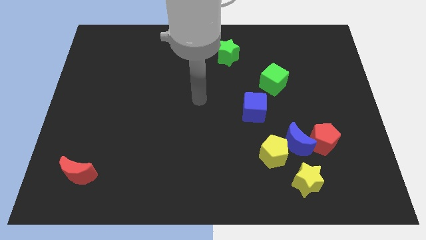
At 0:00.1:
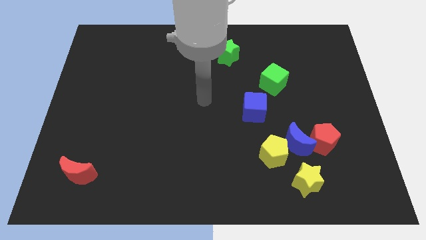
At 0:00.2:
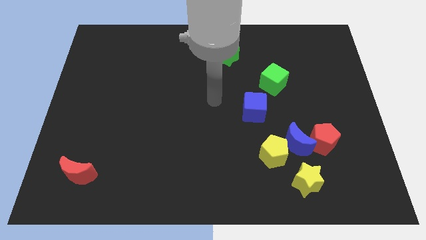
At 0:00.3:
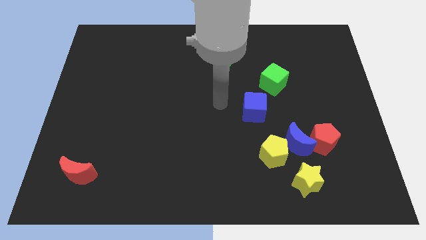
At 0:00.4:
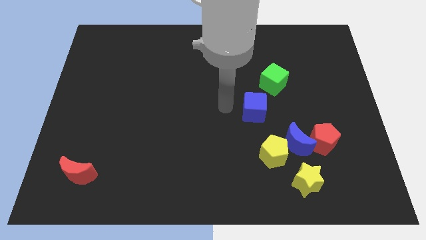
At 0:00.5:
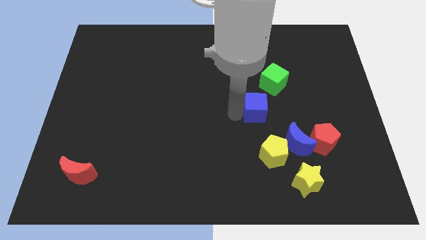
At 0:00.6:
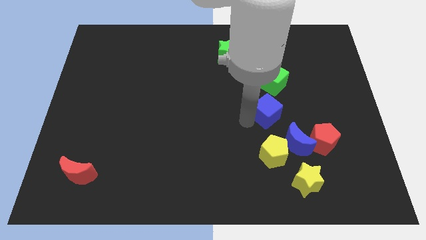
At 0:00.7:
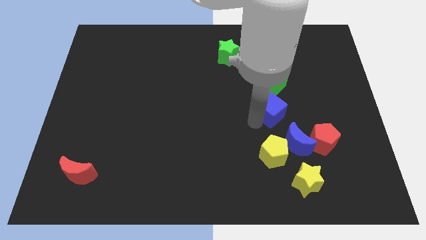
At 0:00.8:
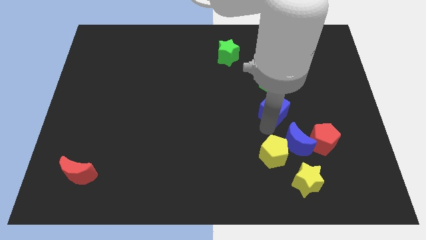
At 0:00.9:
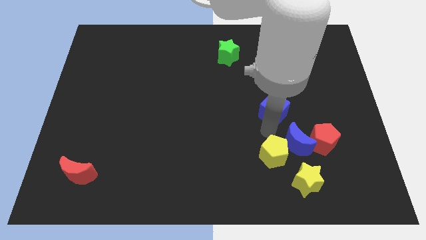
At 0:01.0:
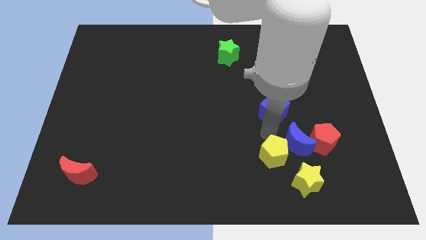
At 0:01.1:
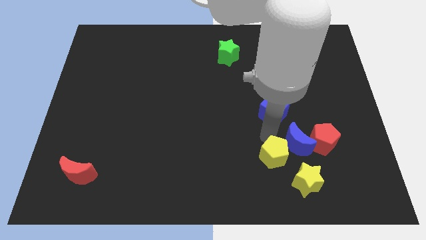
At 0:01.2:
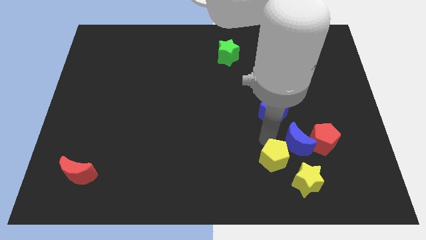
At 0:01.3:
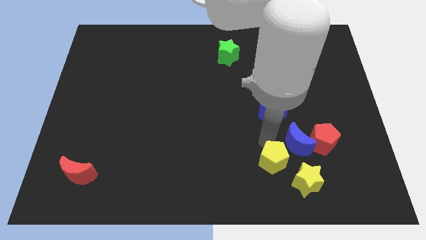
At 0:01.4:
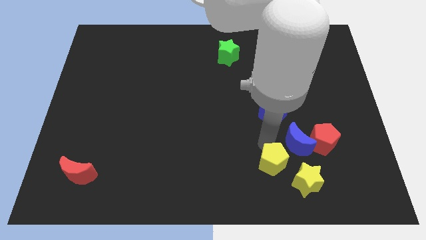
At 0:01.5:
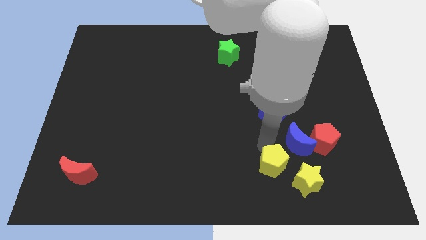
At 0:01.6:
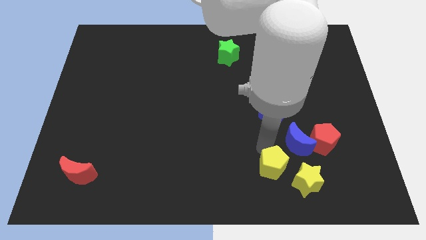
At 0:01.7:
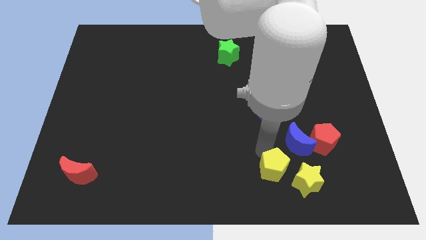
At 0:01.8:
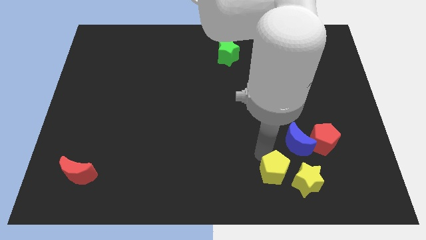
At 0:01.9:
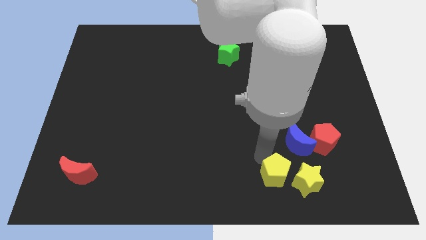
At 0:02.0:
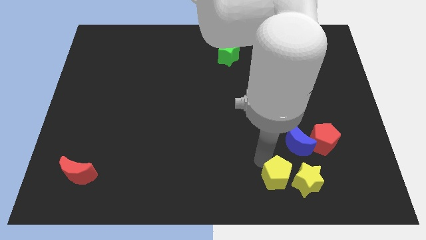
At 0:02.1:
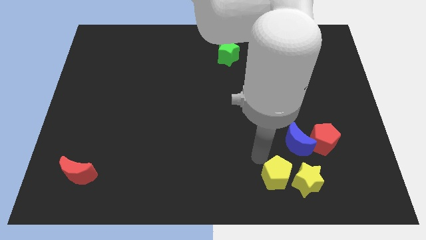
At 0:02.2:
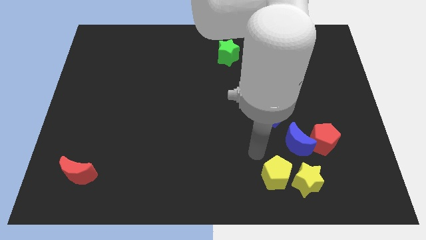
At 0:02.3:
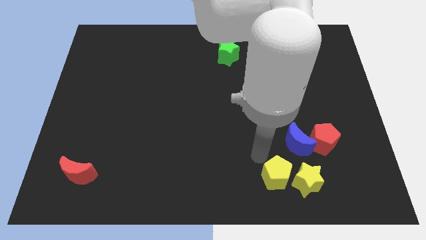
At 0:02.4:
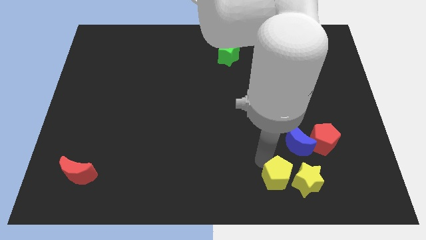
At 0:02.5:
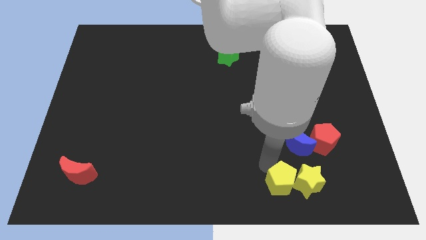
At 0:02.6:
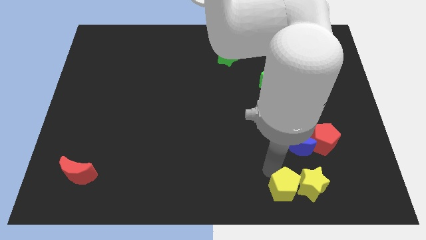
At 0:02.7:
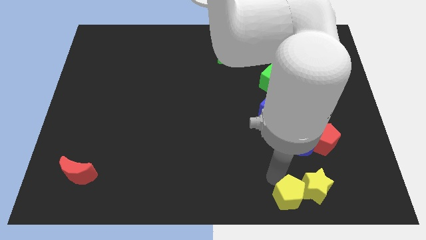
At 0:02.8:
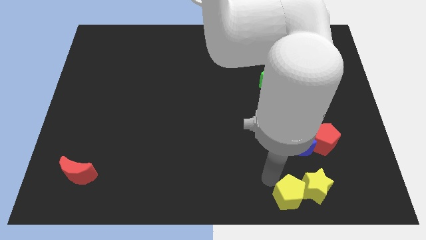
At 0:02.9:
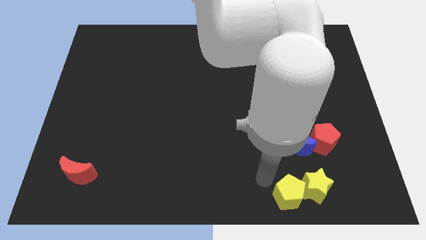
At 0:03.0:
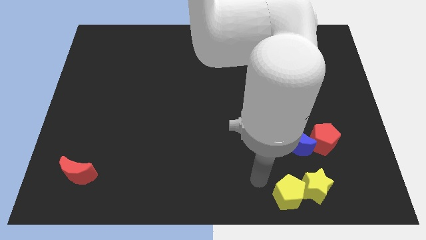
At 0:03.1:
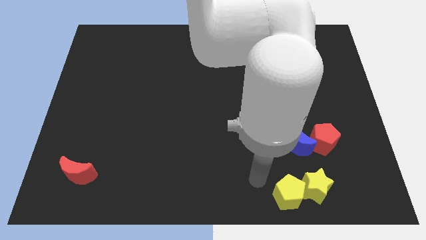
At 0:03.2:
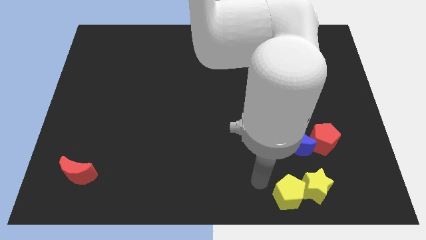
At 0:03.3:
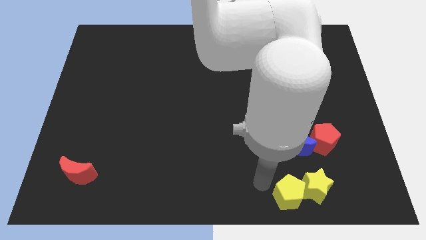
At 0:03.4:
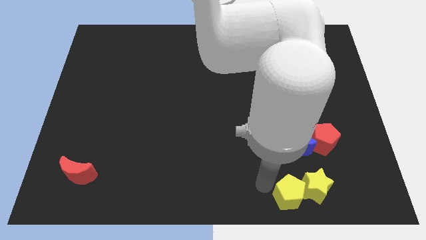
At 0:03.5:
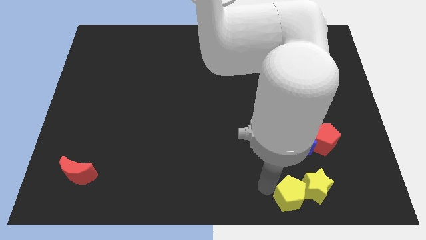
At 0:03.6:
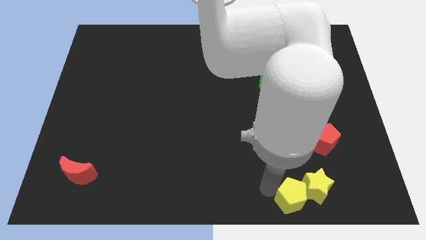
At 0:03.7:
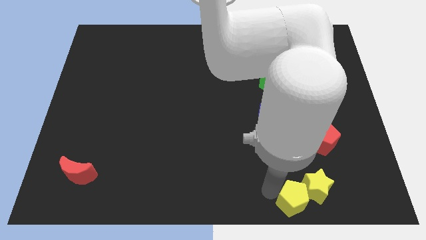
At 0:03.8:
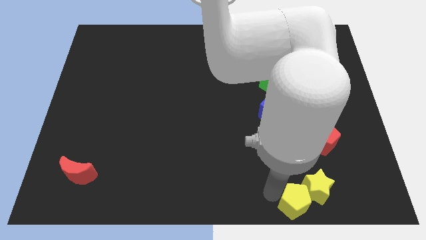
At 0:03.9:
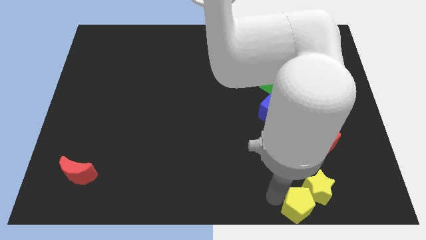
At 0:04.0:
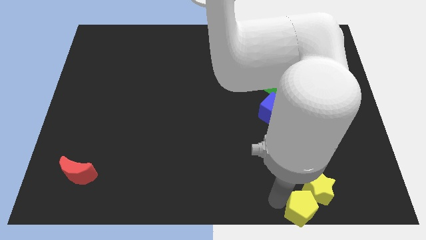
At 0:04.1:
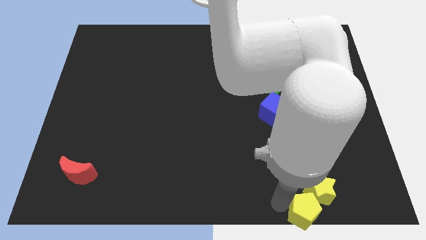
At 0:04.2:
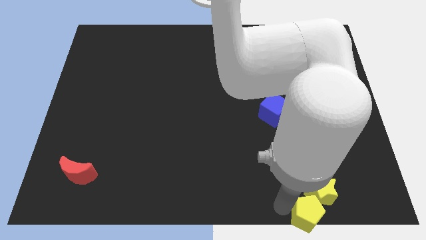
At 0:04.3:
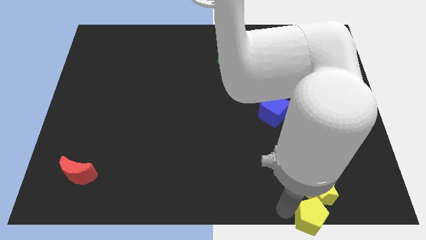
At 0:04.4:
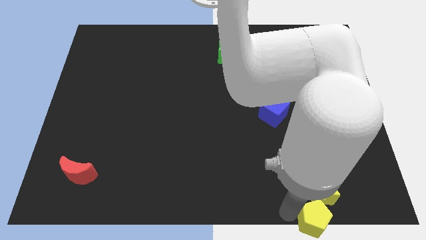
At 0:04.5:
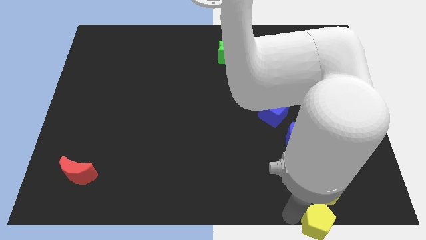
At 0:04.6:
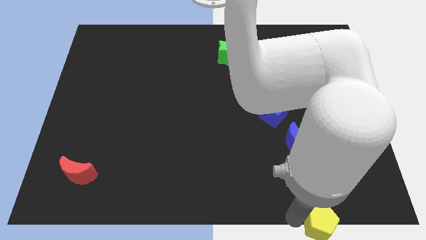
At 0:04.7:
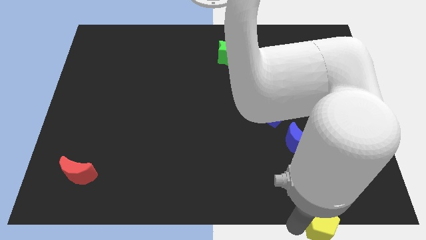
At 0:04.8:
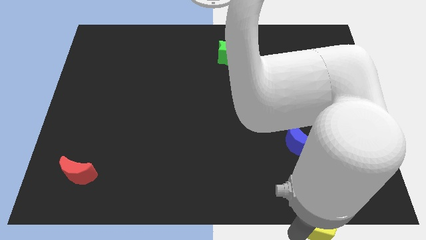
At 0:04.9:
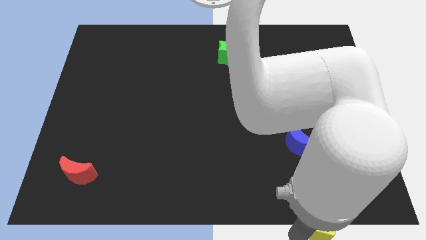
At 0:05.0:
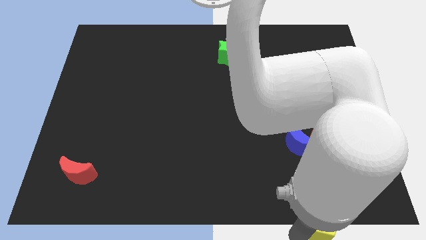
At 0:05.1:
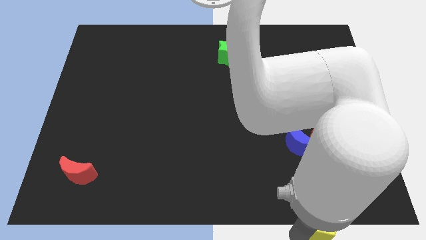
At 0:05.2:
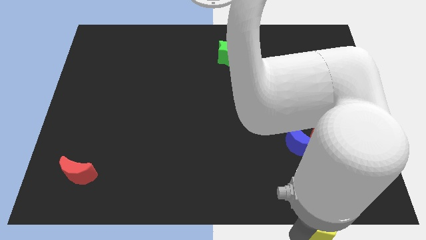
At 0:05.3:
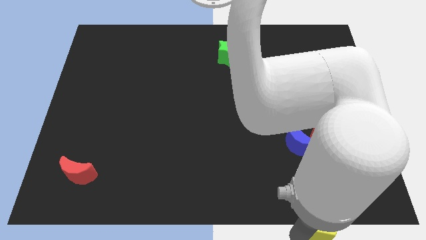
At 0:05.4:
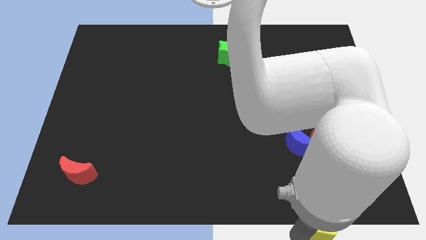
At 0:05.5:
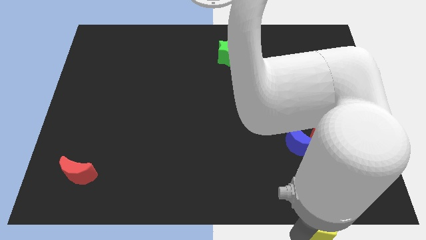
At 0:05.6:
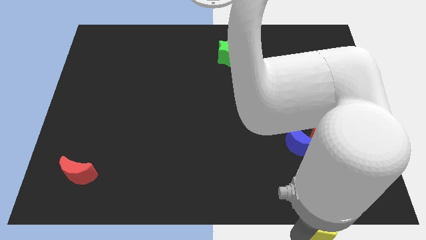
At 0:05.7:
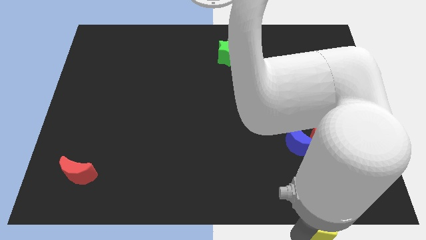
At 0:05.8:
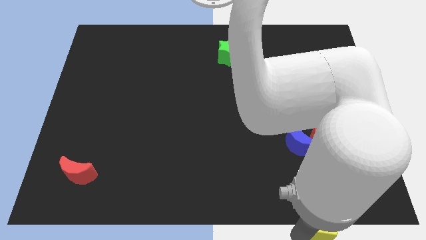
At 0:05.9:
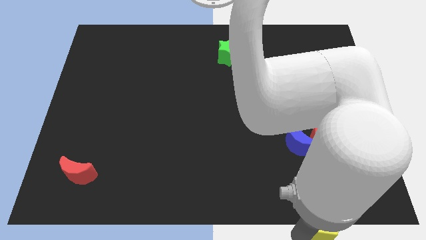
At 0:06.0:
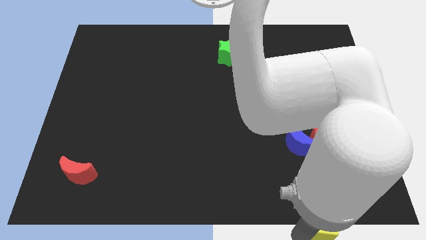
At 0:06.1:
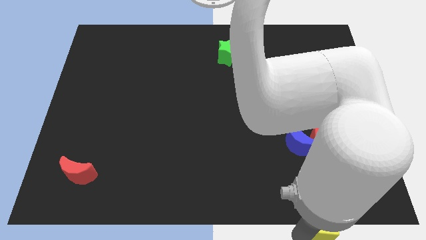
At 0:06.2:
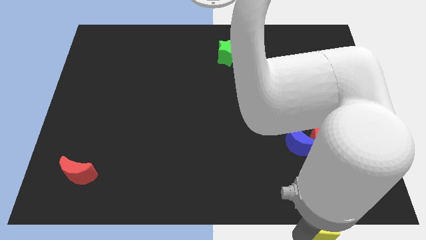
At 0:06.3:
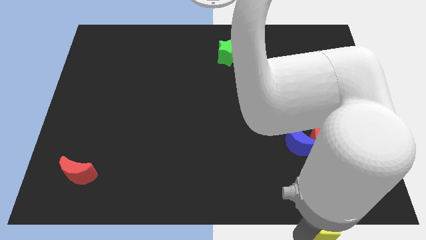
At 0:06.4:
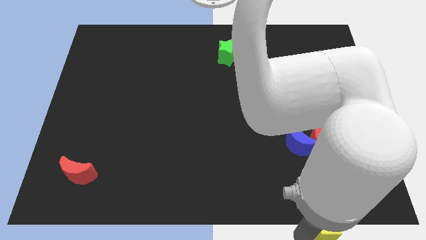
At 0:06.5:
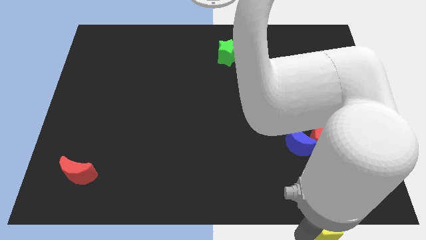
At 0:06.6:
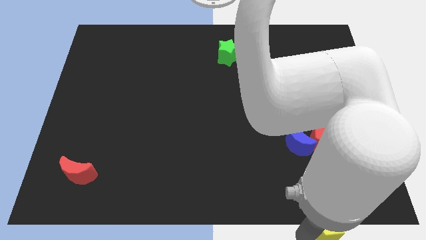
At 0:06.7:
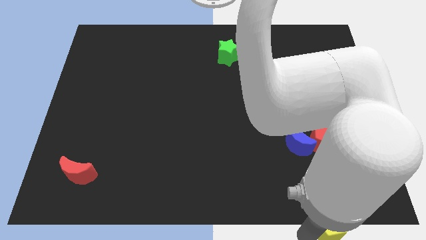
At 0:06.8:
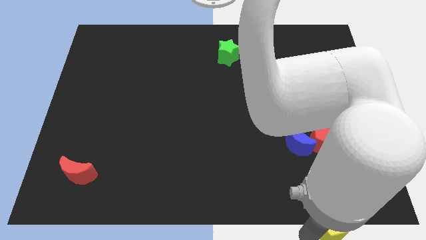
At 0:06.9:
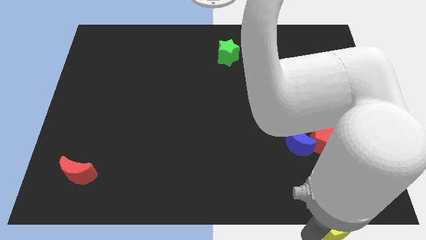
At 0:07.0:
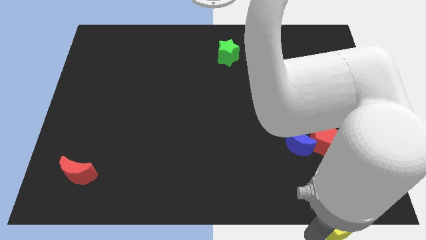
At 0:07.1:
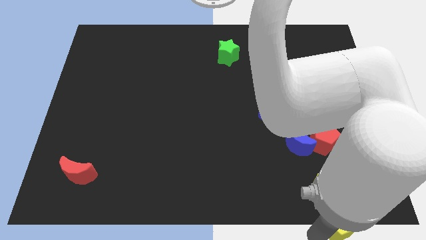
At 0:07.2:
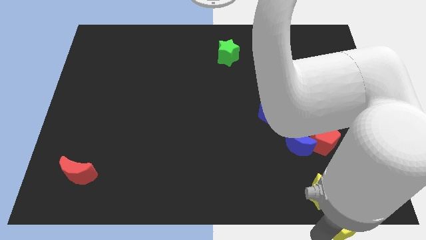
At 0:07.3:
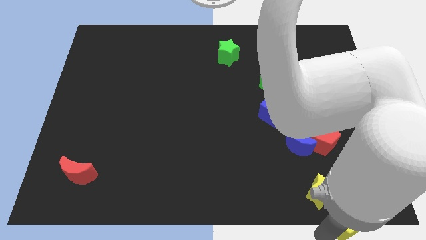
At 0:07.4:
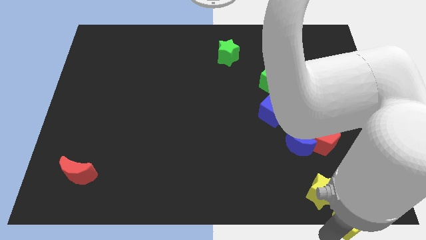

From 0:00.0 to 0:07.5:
put the yellow pentagon to the bottom right
